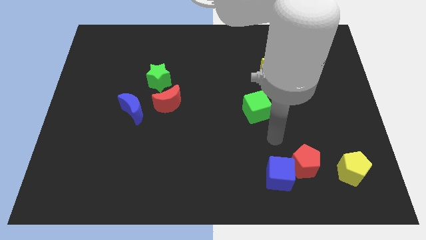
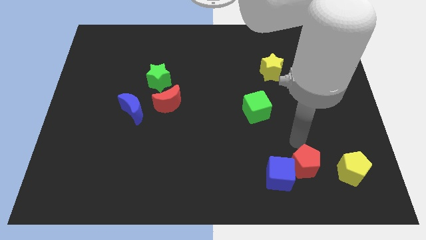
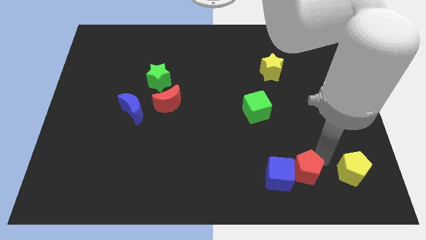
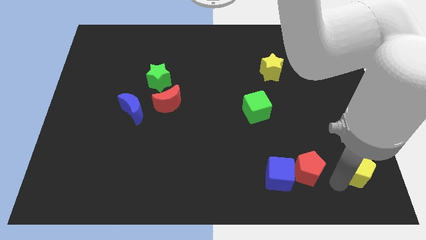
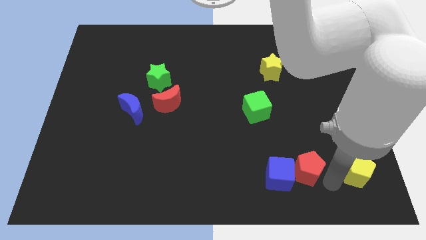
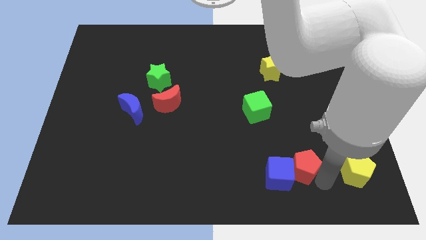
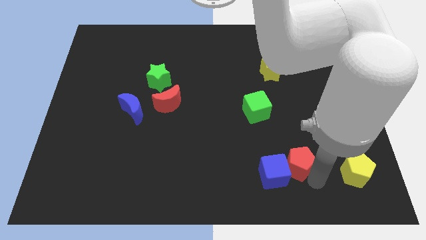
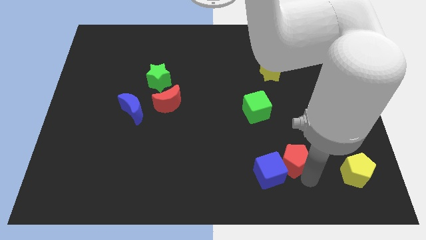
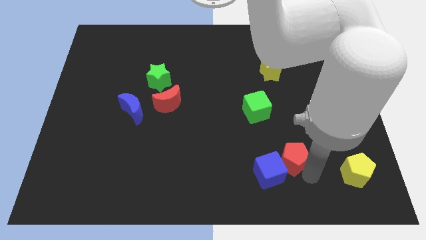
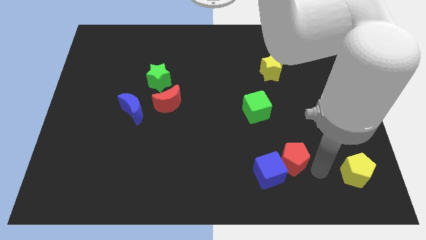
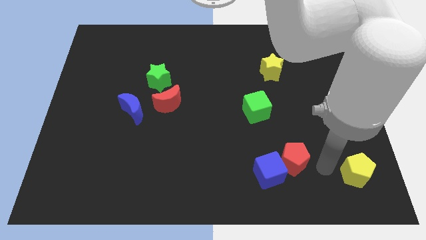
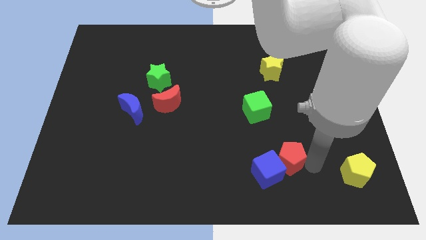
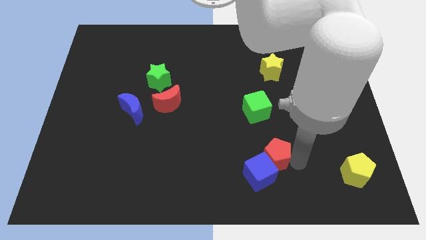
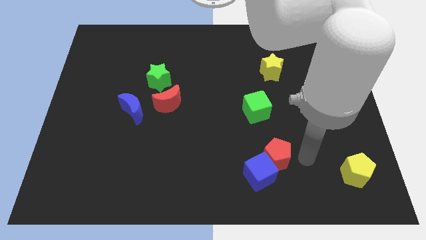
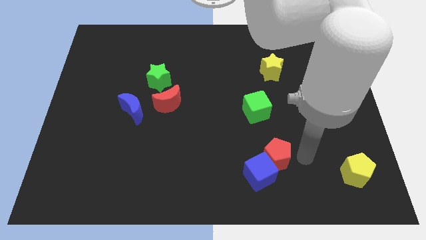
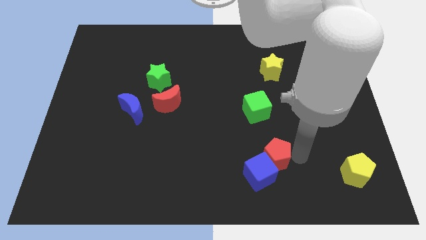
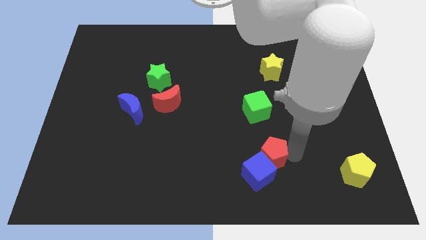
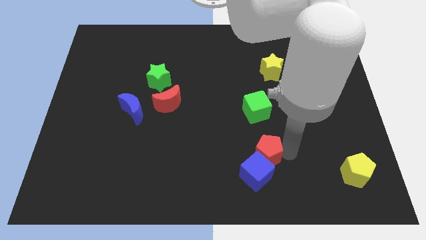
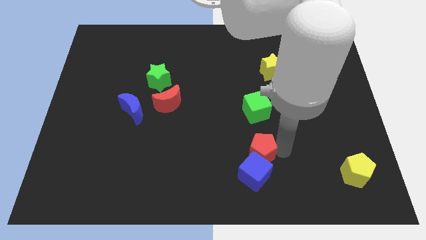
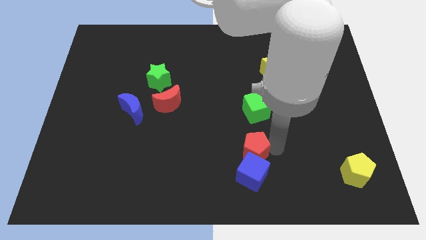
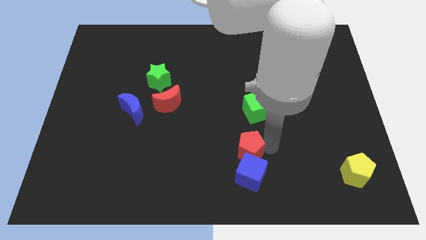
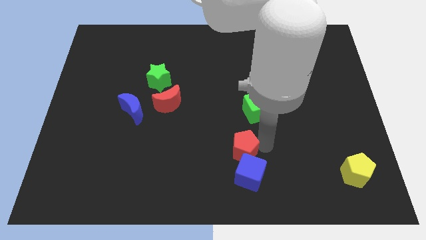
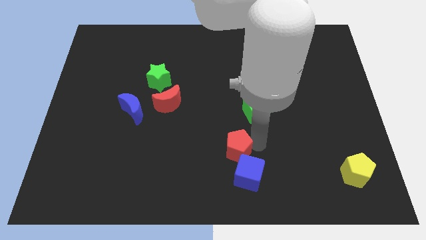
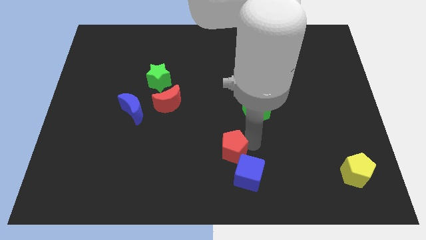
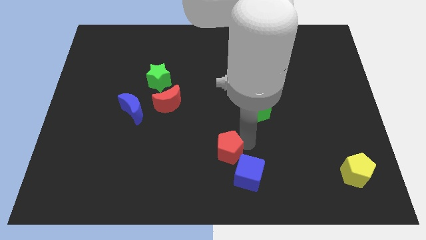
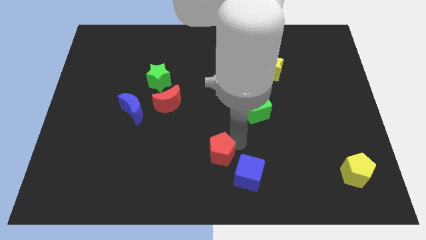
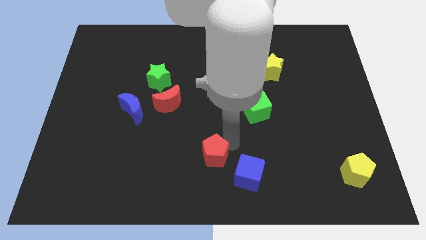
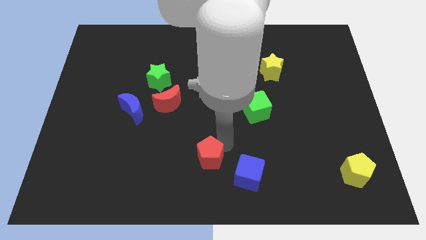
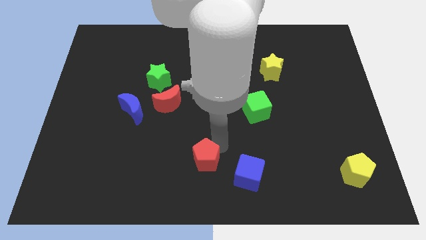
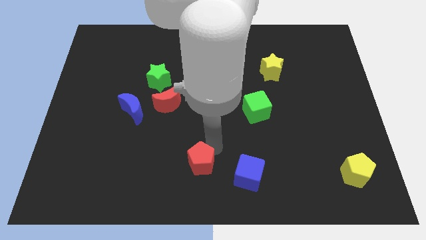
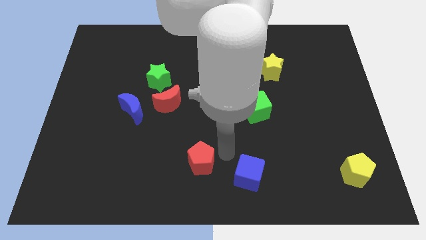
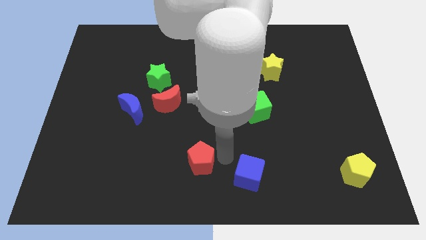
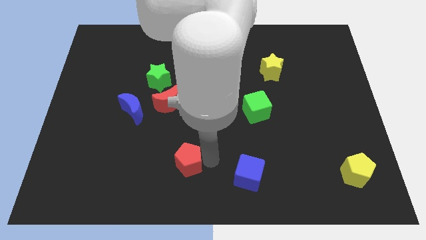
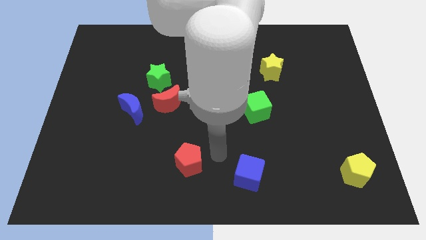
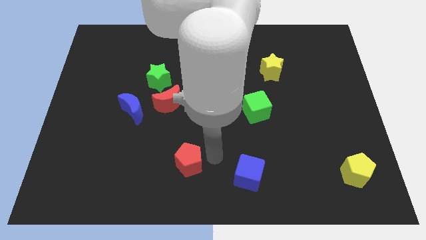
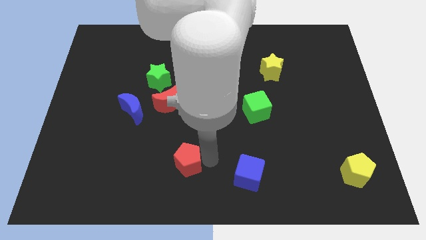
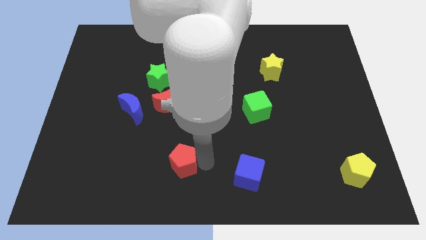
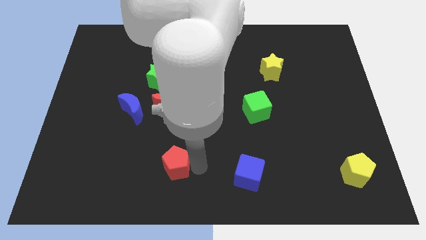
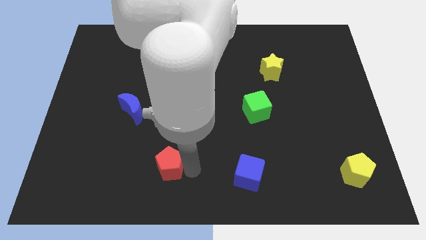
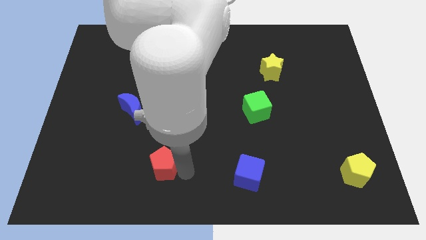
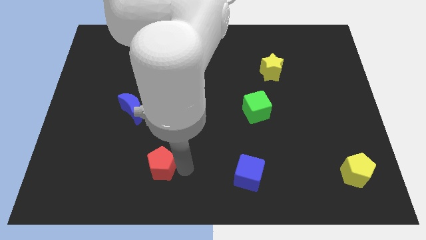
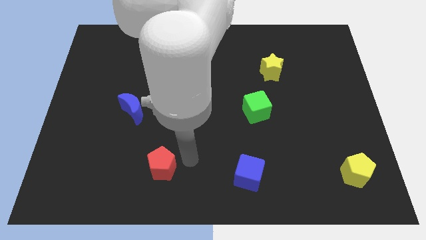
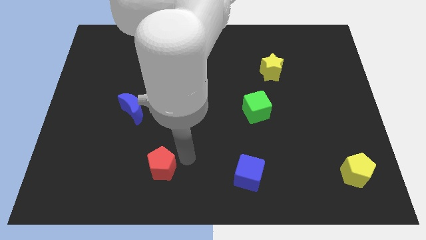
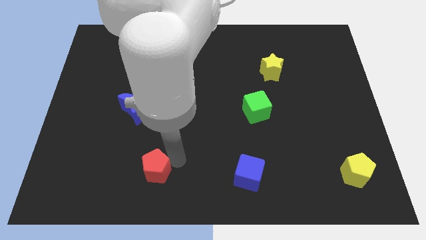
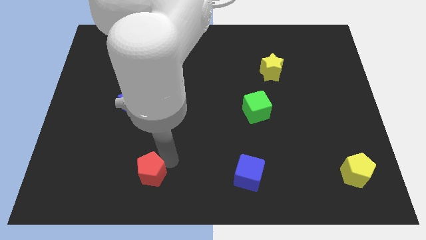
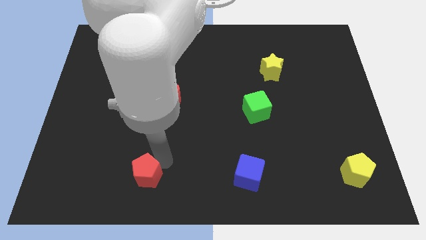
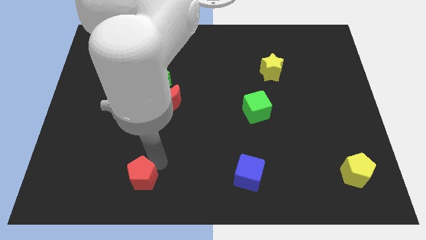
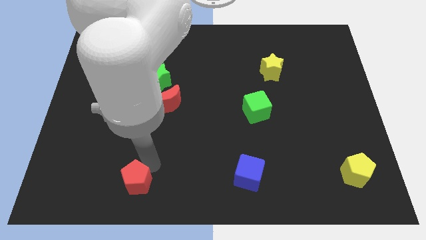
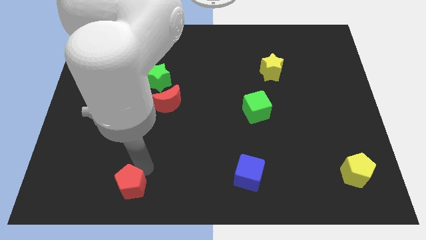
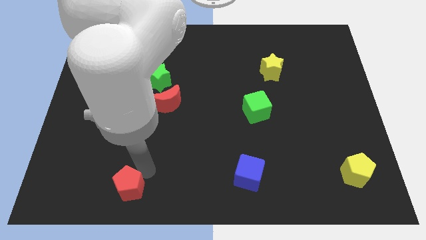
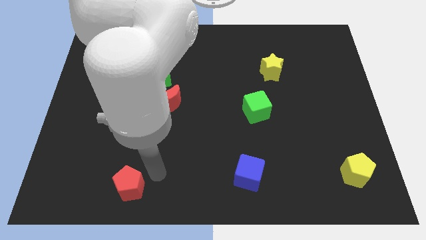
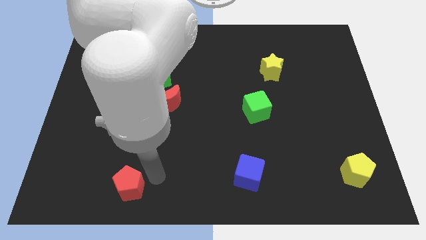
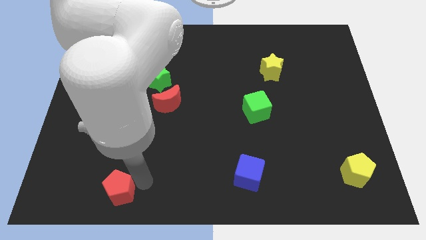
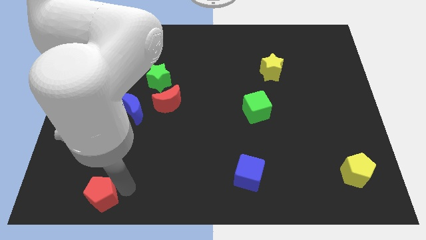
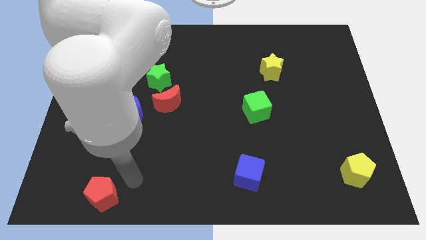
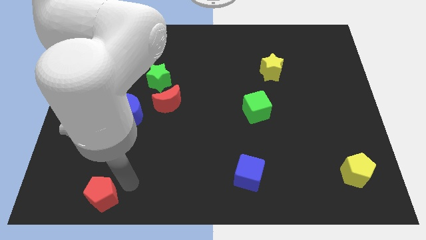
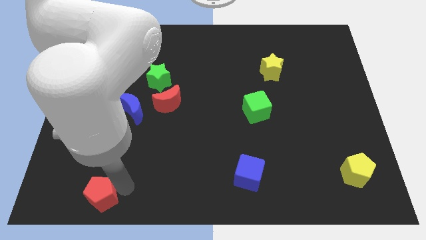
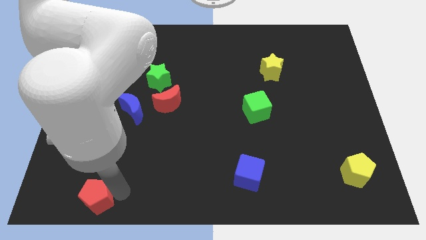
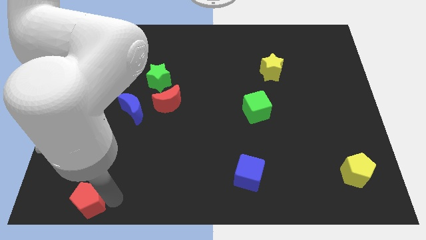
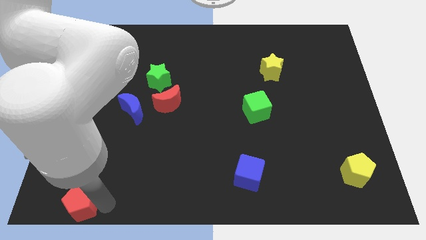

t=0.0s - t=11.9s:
move the red pentagon to the lower left corner
